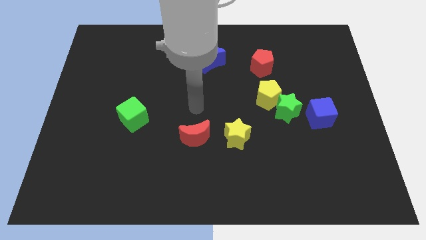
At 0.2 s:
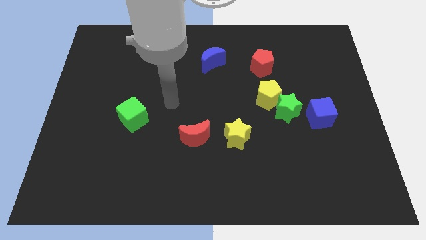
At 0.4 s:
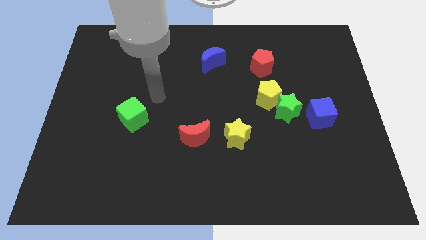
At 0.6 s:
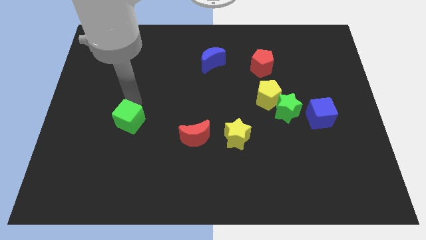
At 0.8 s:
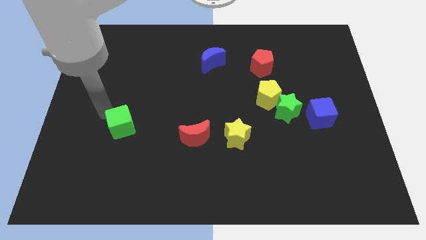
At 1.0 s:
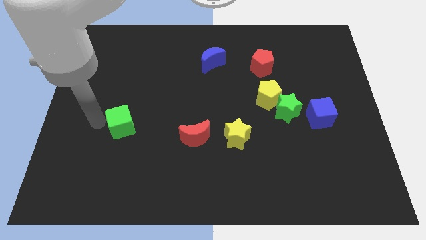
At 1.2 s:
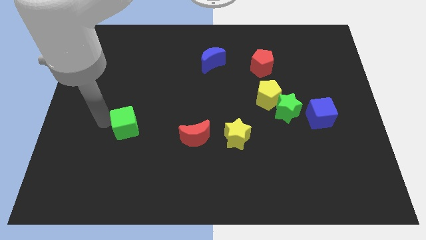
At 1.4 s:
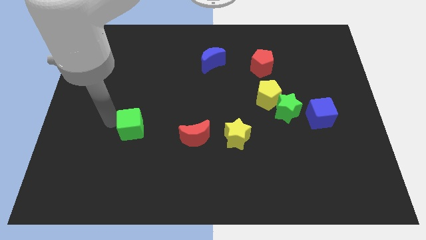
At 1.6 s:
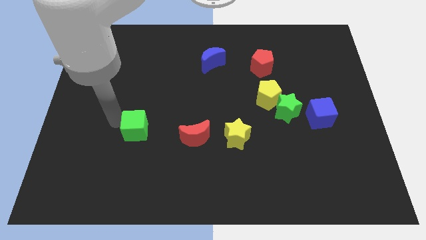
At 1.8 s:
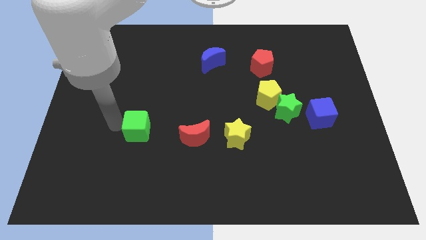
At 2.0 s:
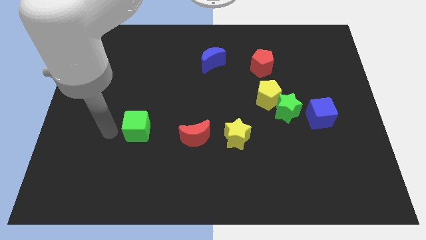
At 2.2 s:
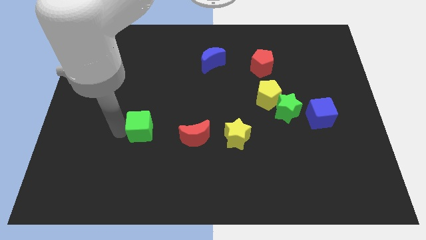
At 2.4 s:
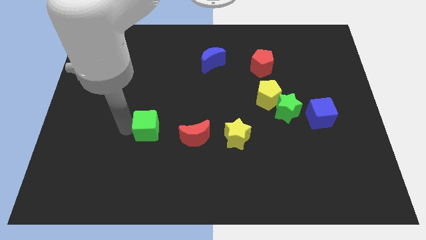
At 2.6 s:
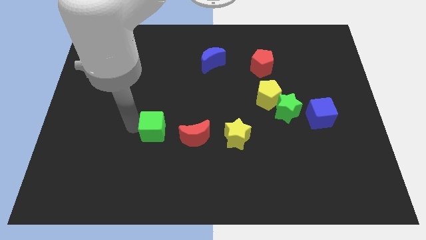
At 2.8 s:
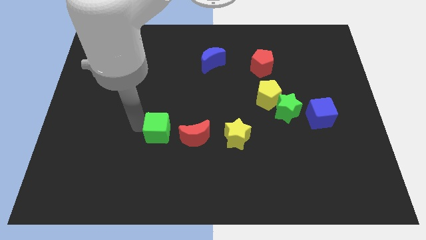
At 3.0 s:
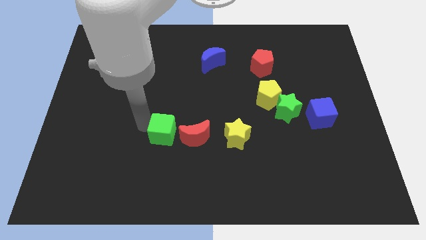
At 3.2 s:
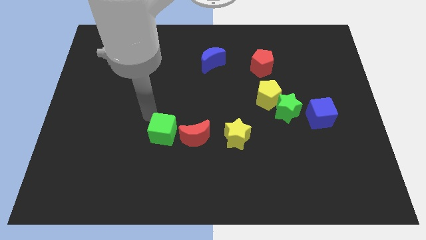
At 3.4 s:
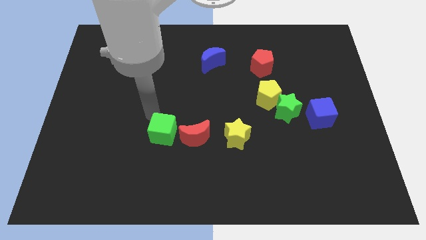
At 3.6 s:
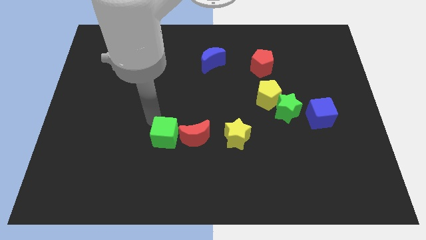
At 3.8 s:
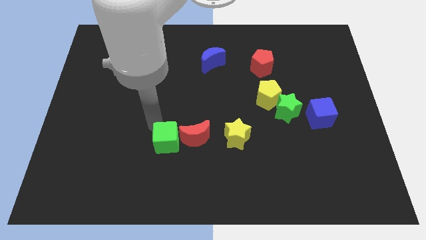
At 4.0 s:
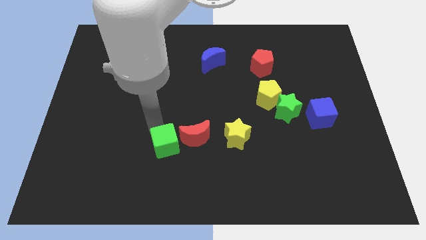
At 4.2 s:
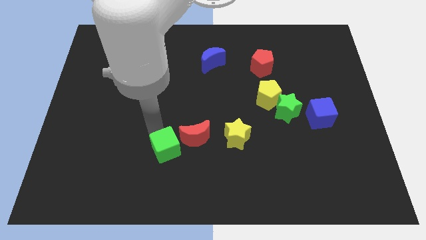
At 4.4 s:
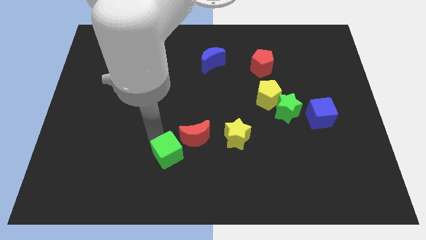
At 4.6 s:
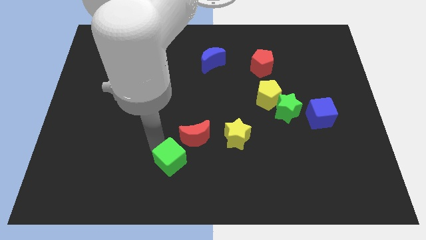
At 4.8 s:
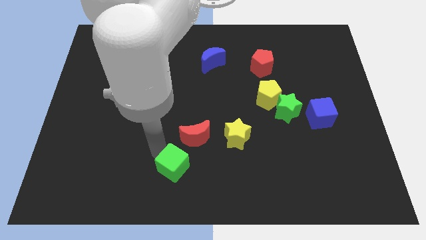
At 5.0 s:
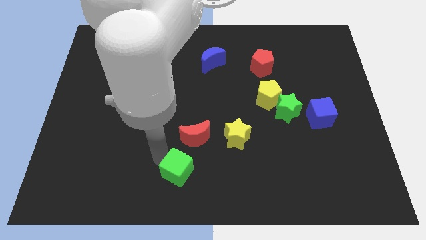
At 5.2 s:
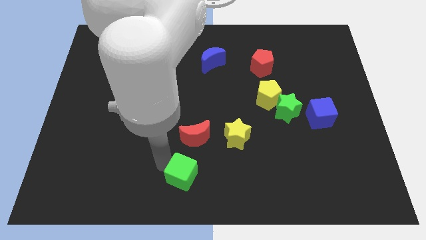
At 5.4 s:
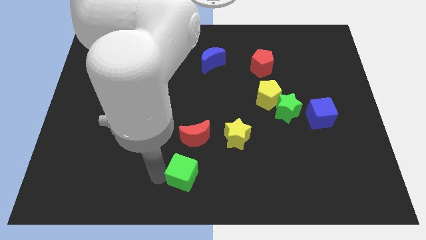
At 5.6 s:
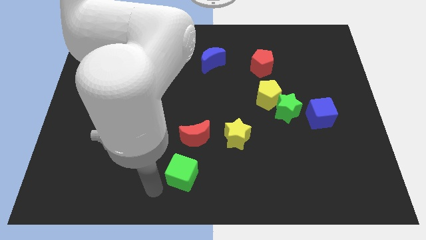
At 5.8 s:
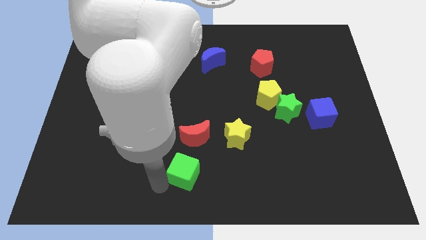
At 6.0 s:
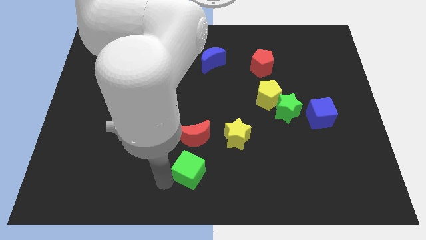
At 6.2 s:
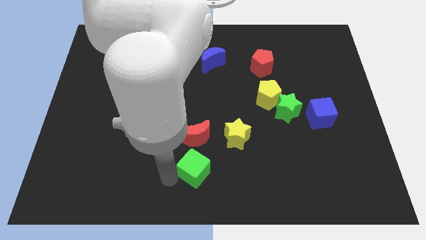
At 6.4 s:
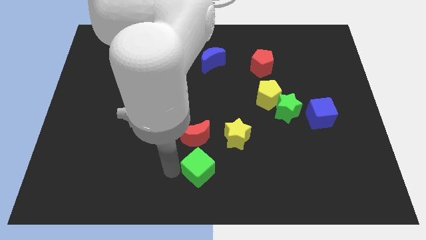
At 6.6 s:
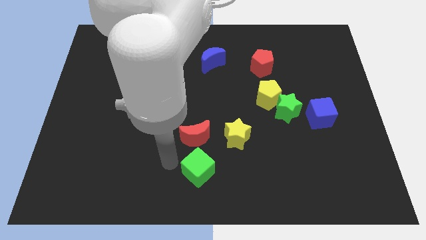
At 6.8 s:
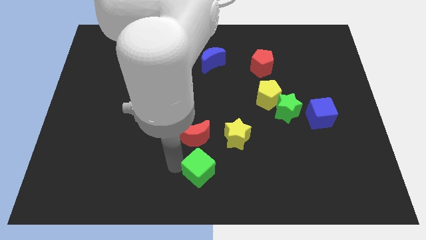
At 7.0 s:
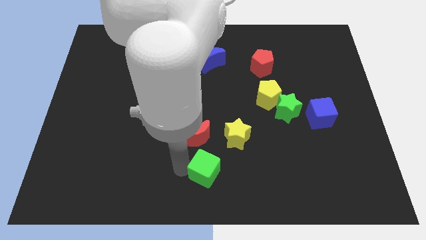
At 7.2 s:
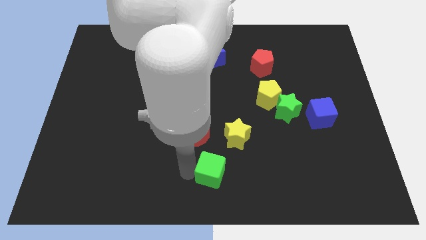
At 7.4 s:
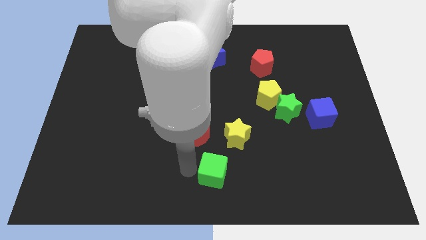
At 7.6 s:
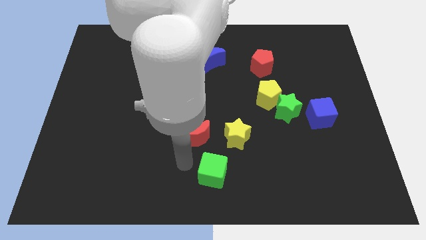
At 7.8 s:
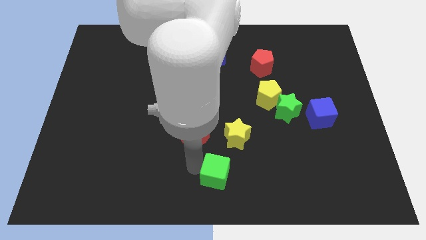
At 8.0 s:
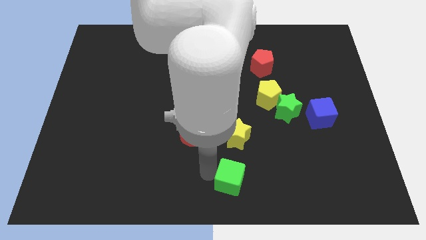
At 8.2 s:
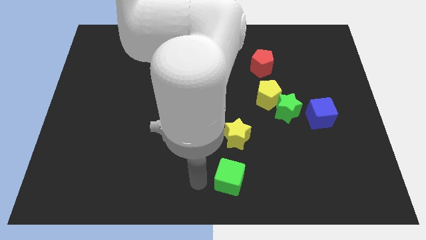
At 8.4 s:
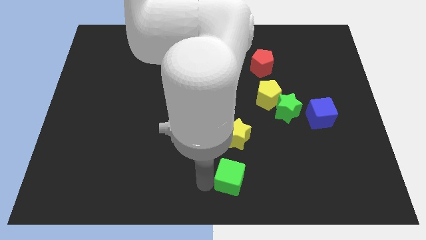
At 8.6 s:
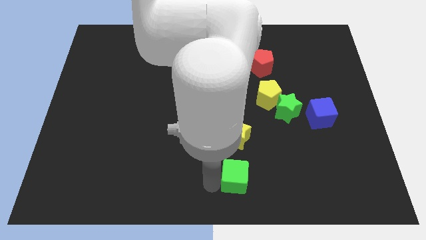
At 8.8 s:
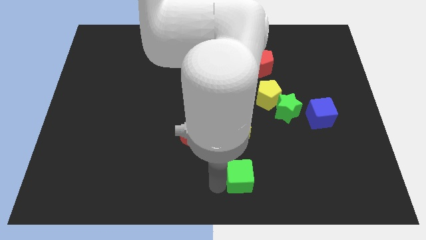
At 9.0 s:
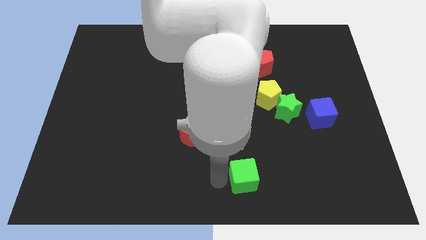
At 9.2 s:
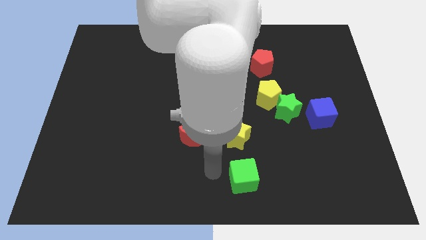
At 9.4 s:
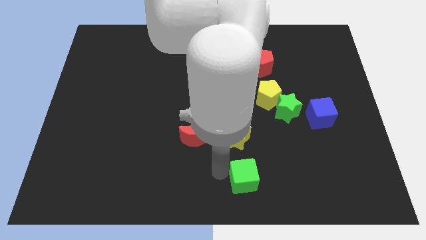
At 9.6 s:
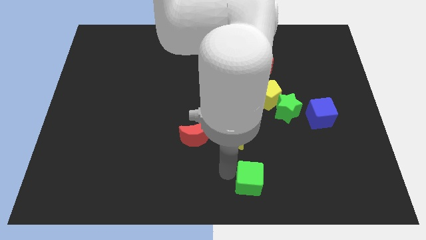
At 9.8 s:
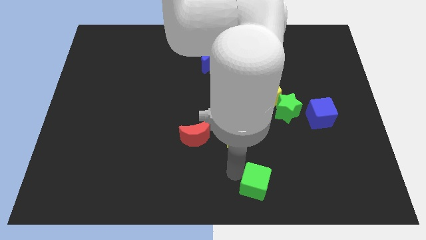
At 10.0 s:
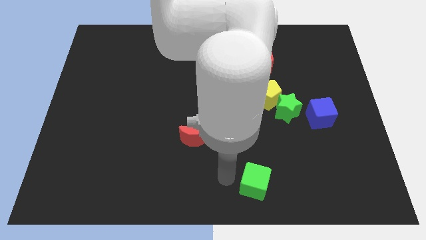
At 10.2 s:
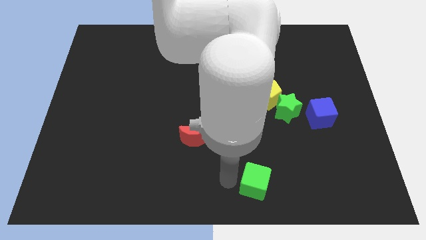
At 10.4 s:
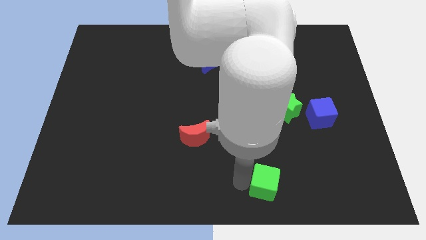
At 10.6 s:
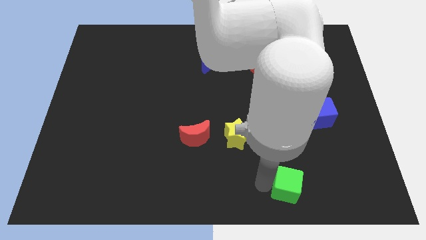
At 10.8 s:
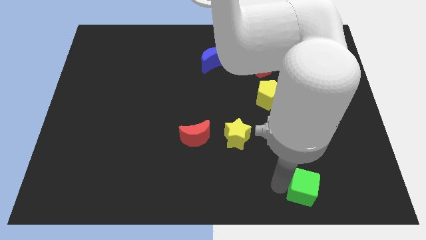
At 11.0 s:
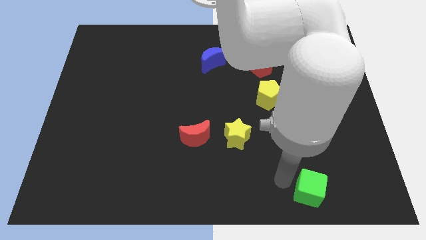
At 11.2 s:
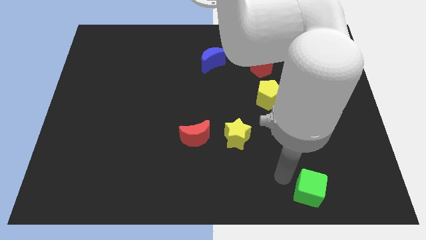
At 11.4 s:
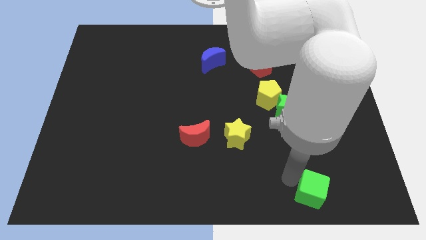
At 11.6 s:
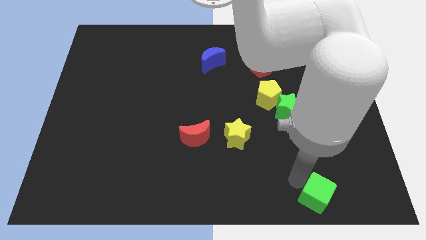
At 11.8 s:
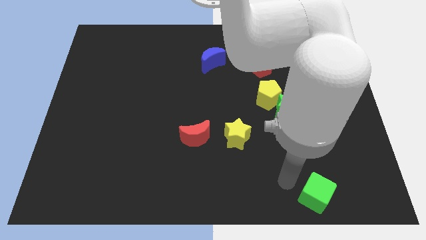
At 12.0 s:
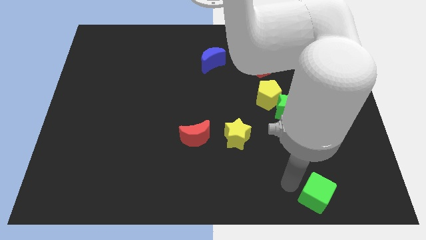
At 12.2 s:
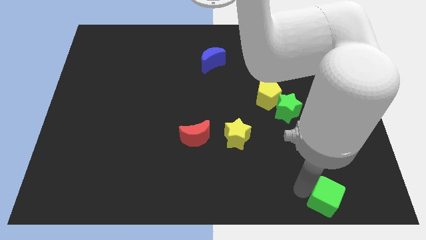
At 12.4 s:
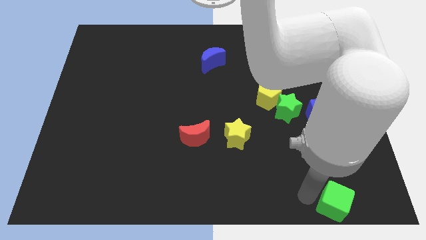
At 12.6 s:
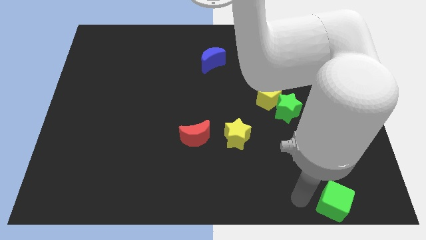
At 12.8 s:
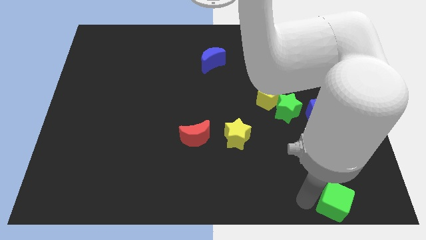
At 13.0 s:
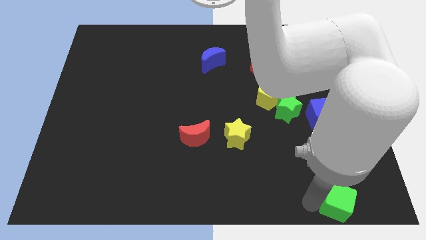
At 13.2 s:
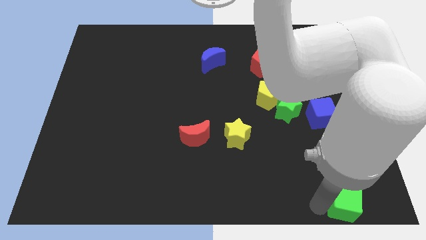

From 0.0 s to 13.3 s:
move the green cube to the bottom right of the board

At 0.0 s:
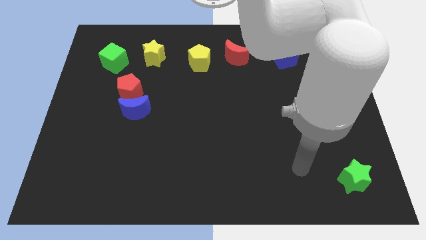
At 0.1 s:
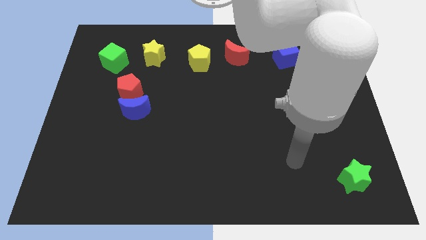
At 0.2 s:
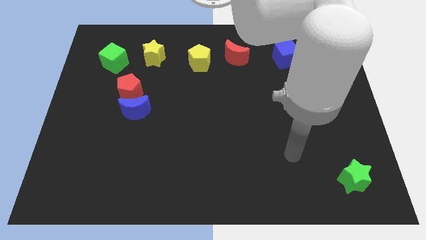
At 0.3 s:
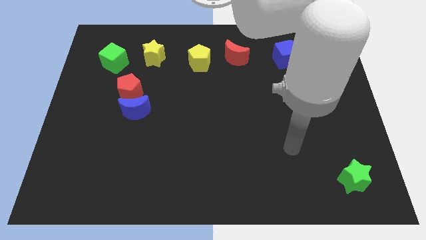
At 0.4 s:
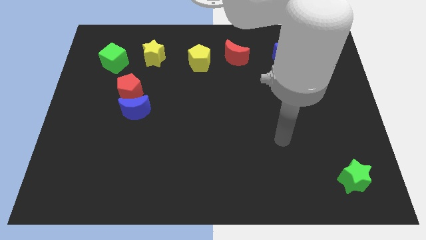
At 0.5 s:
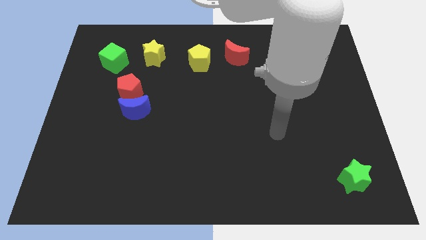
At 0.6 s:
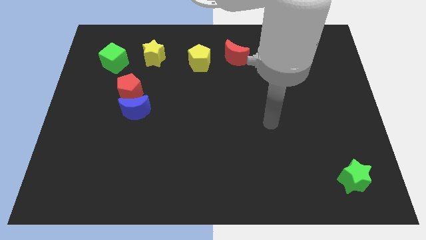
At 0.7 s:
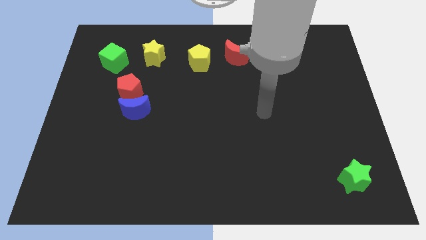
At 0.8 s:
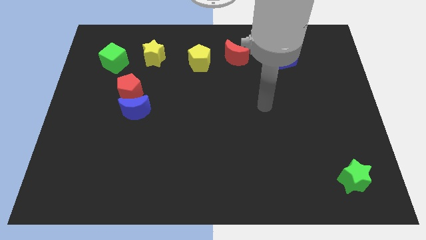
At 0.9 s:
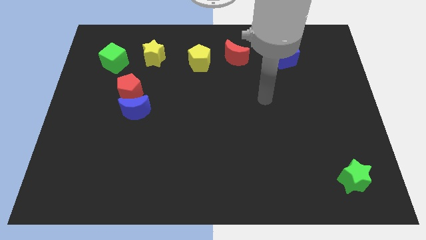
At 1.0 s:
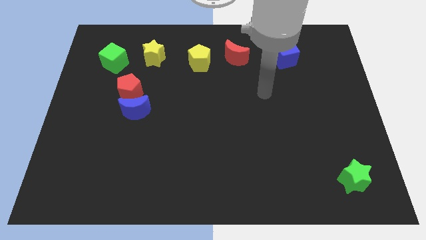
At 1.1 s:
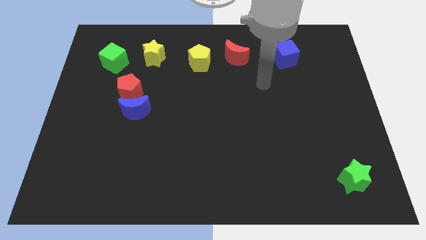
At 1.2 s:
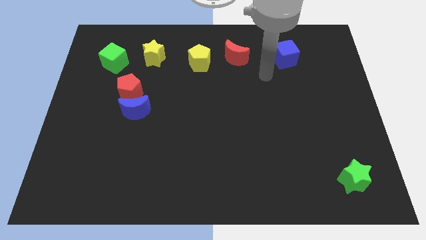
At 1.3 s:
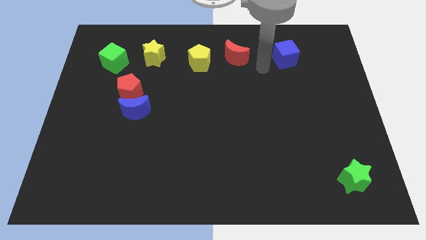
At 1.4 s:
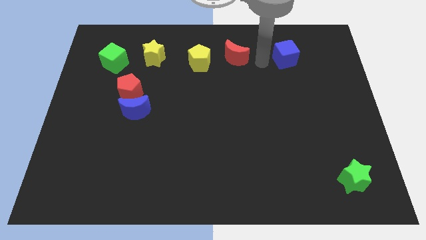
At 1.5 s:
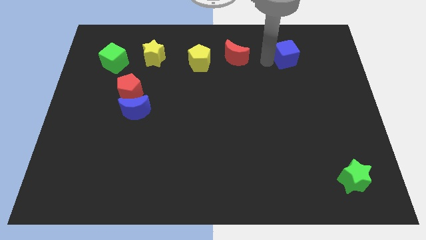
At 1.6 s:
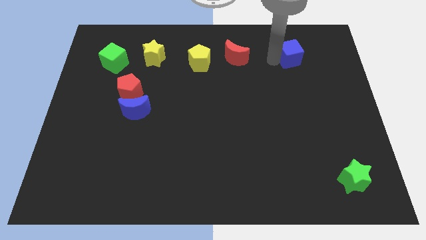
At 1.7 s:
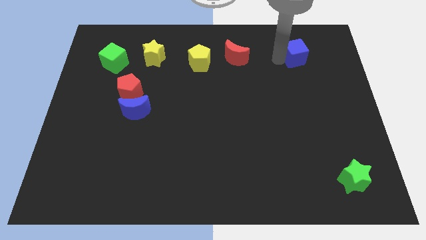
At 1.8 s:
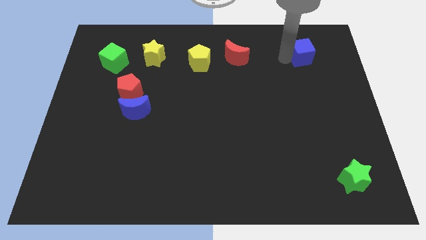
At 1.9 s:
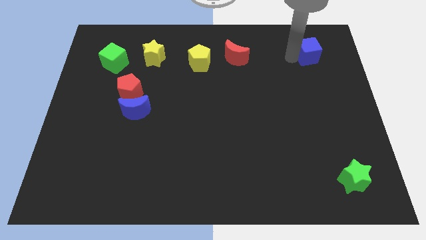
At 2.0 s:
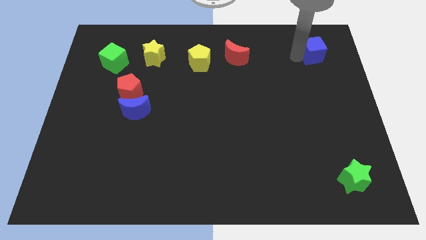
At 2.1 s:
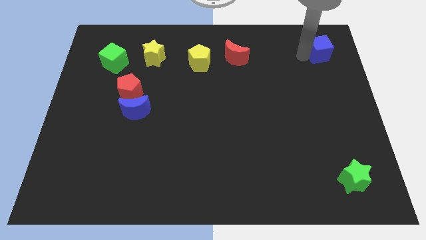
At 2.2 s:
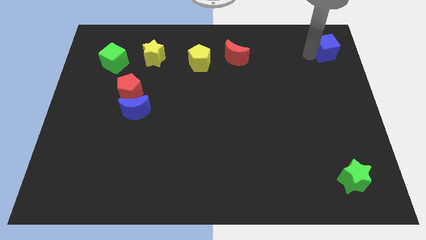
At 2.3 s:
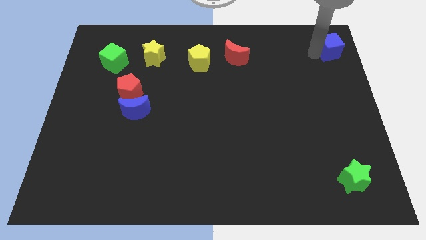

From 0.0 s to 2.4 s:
push the blue cube to the top right
